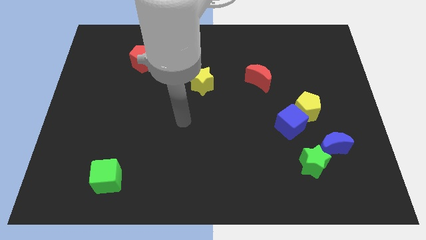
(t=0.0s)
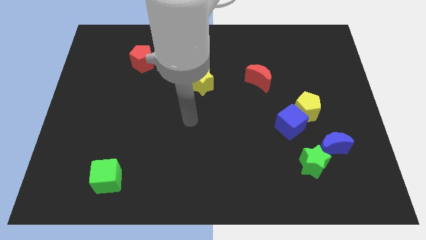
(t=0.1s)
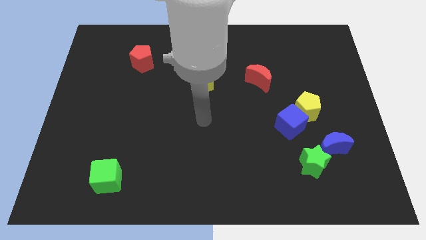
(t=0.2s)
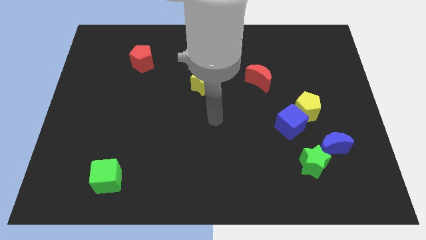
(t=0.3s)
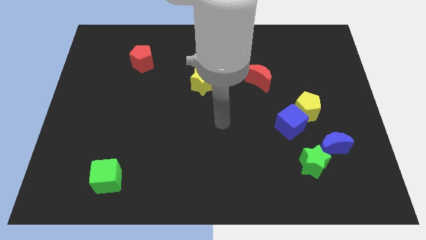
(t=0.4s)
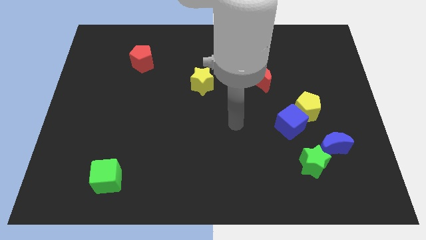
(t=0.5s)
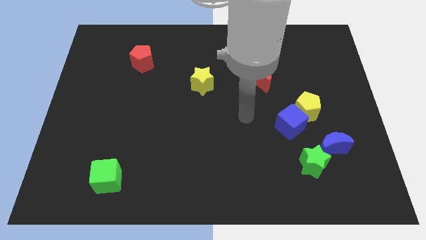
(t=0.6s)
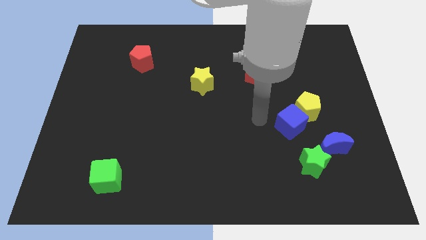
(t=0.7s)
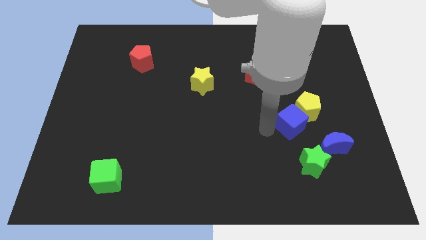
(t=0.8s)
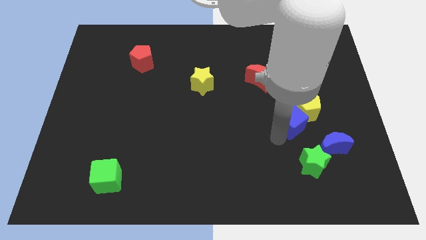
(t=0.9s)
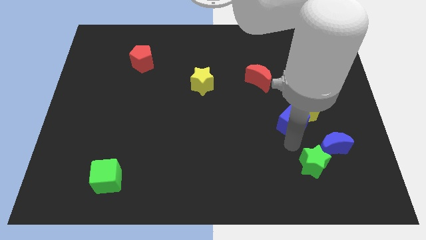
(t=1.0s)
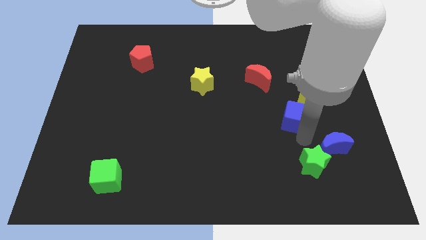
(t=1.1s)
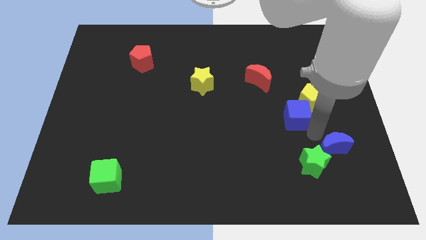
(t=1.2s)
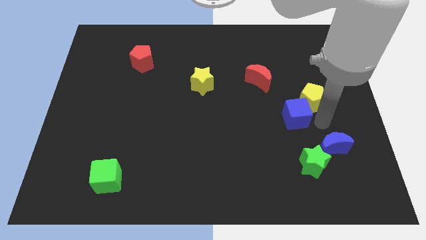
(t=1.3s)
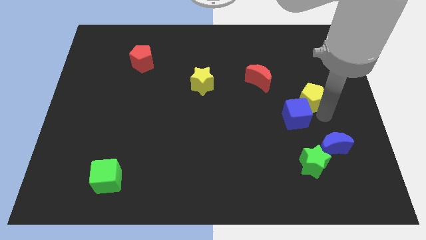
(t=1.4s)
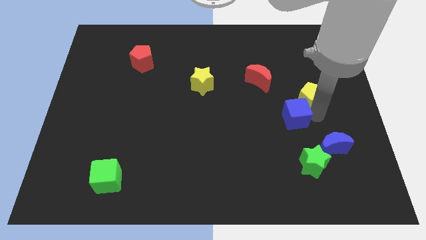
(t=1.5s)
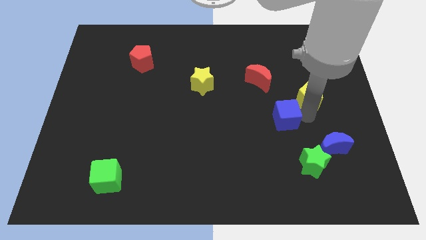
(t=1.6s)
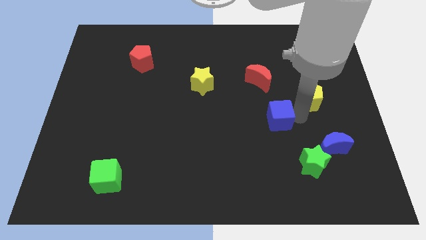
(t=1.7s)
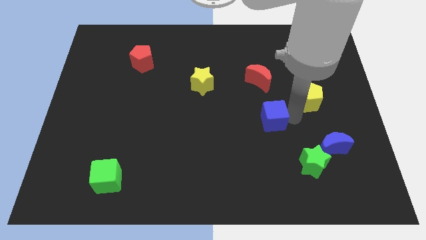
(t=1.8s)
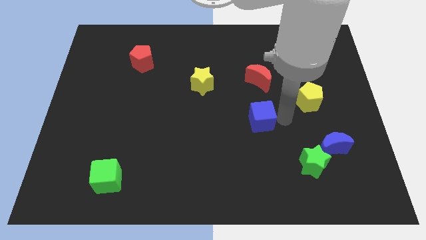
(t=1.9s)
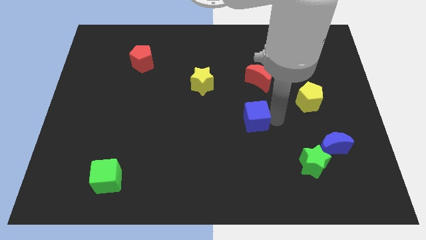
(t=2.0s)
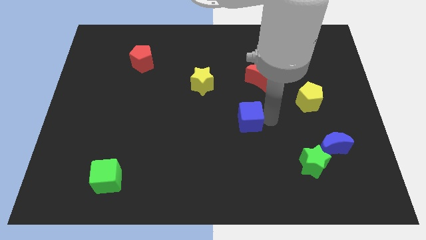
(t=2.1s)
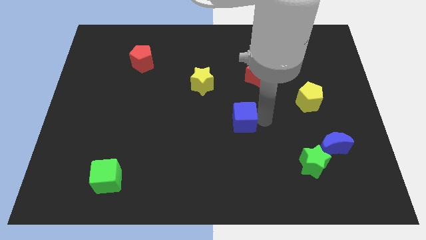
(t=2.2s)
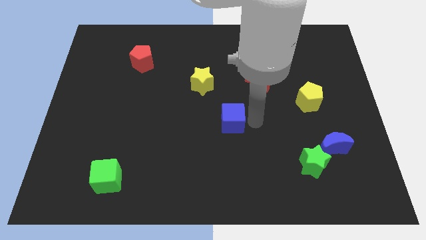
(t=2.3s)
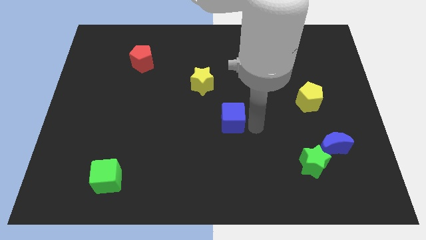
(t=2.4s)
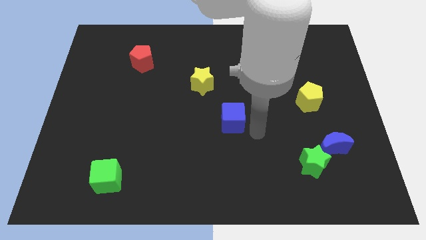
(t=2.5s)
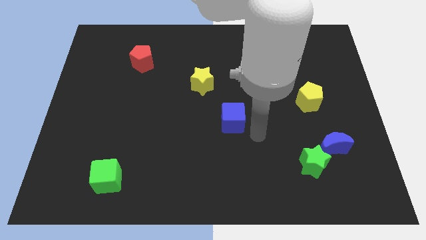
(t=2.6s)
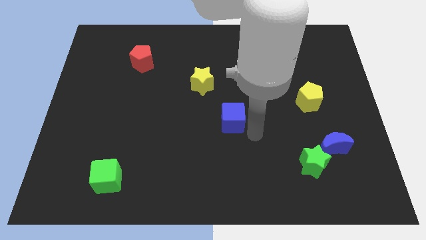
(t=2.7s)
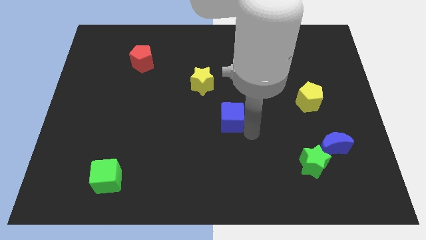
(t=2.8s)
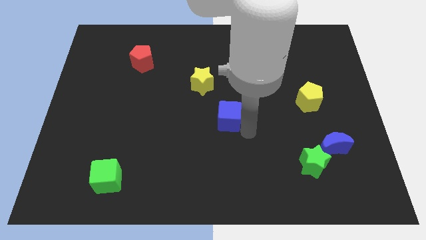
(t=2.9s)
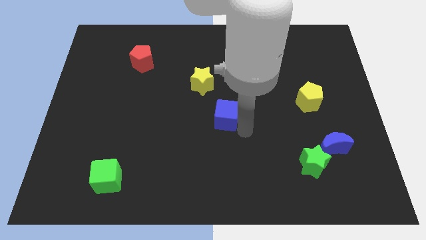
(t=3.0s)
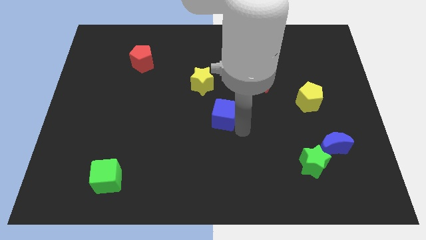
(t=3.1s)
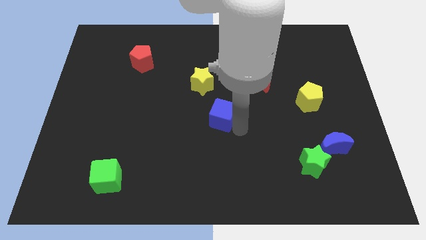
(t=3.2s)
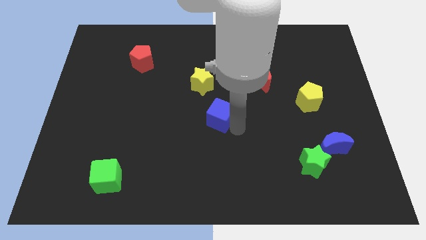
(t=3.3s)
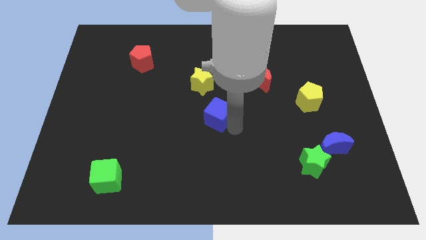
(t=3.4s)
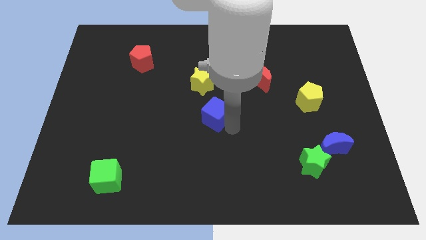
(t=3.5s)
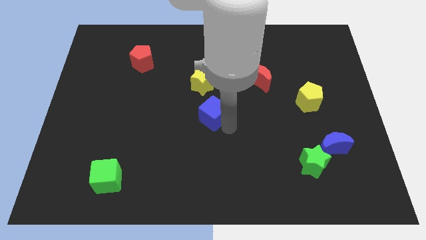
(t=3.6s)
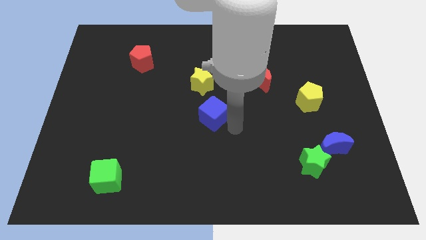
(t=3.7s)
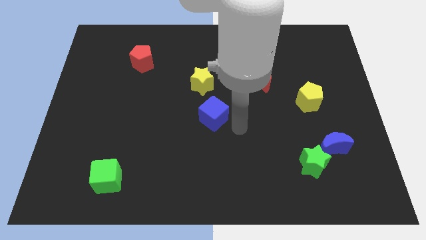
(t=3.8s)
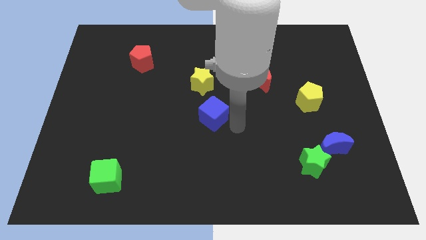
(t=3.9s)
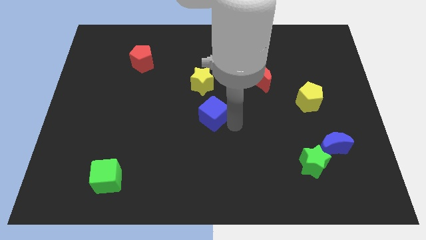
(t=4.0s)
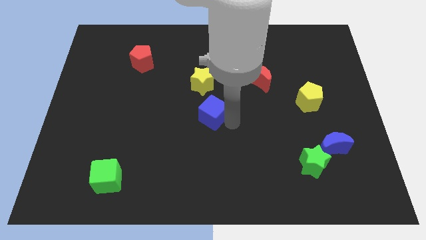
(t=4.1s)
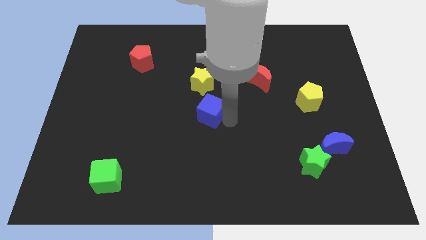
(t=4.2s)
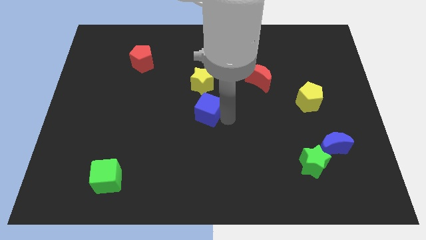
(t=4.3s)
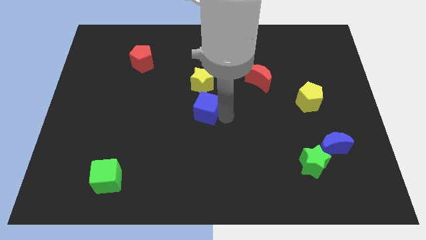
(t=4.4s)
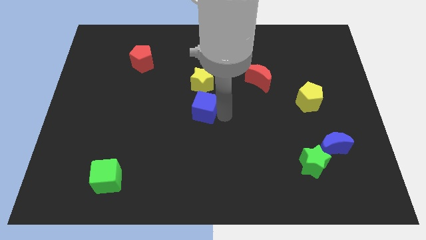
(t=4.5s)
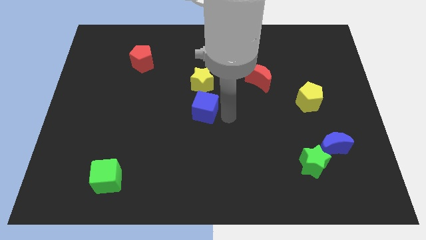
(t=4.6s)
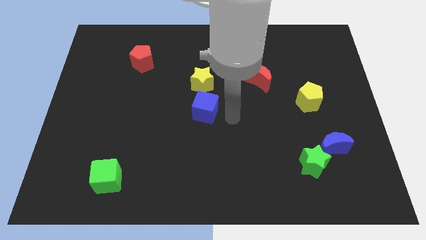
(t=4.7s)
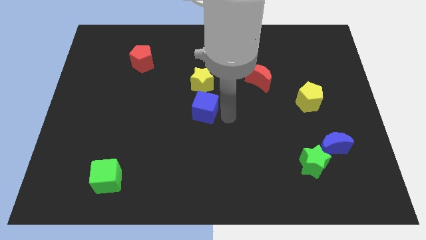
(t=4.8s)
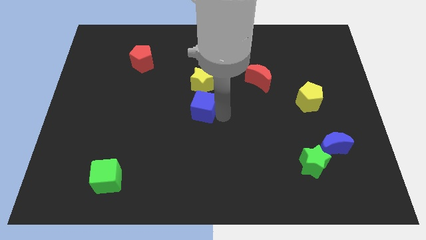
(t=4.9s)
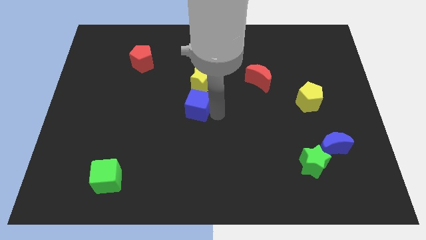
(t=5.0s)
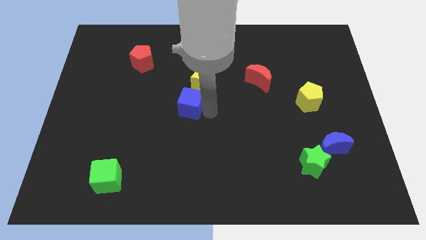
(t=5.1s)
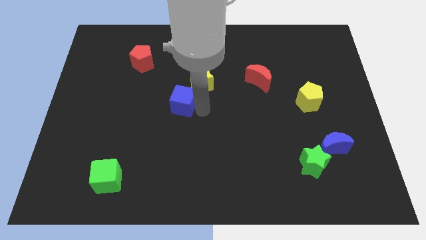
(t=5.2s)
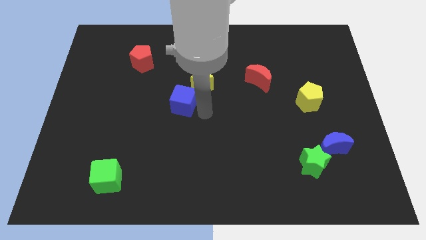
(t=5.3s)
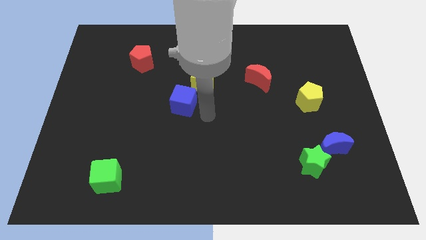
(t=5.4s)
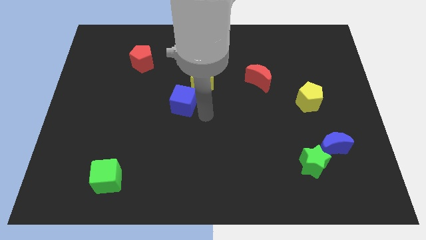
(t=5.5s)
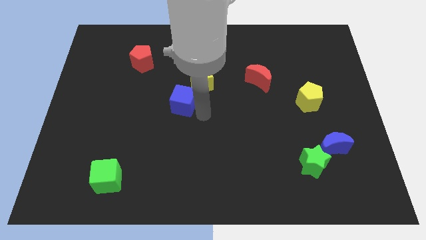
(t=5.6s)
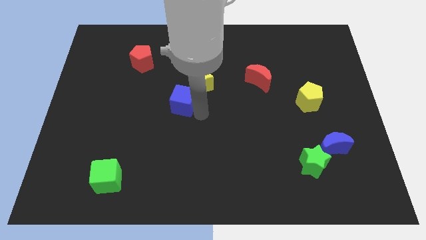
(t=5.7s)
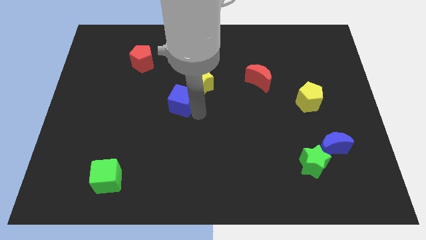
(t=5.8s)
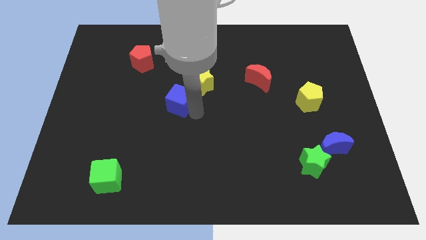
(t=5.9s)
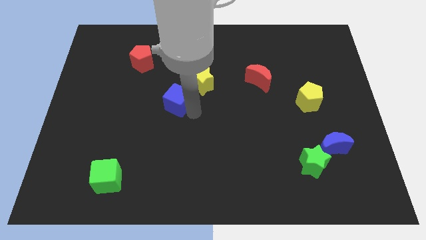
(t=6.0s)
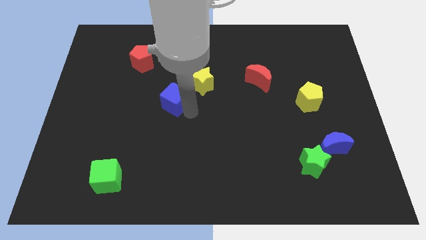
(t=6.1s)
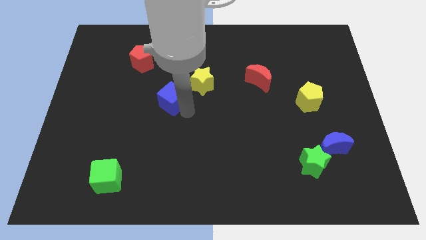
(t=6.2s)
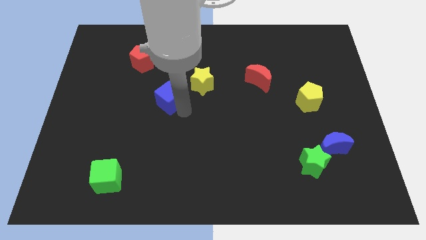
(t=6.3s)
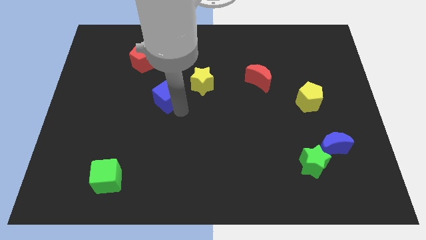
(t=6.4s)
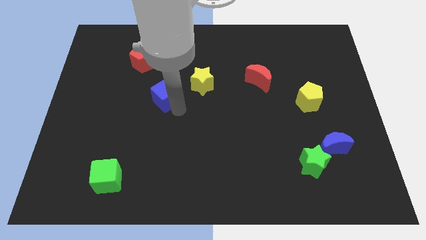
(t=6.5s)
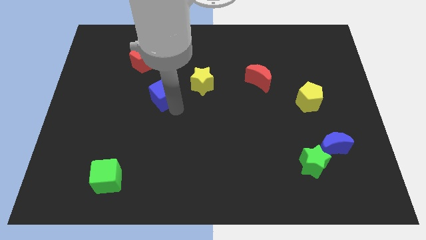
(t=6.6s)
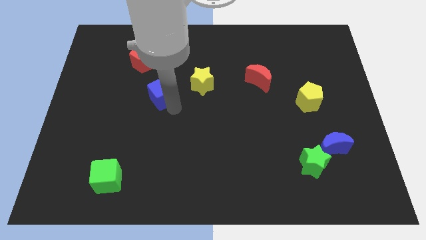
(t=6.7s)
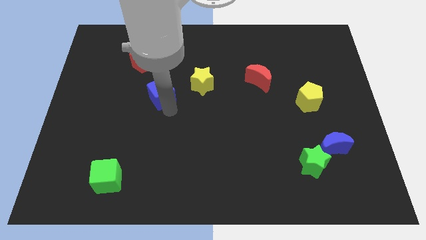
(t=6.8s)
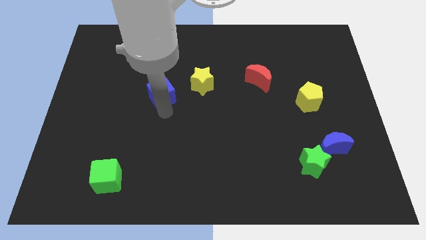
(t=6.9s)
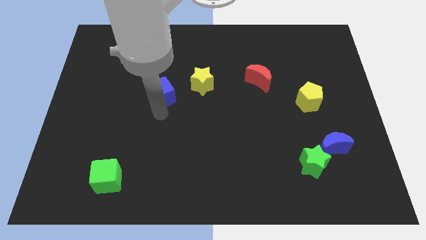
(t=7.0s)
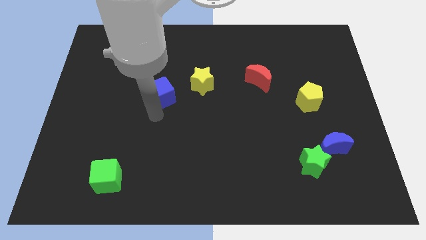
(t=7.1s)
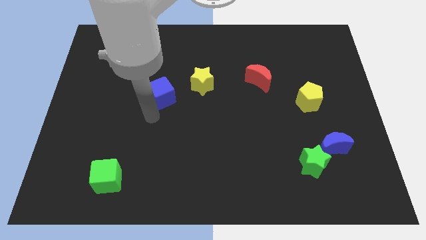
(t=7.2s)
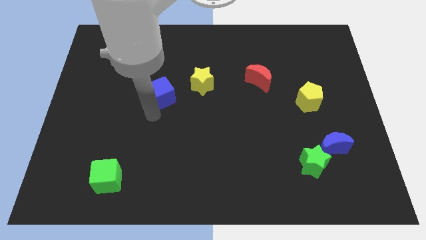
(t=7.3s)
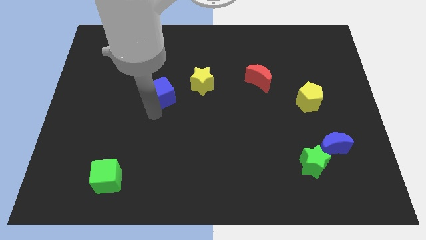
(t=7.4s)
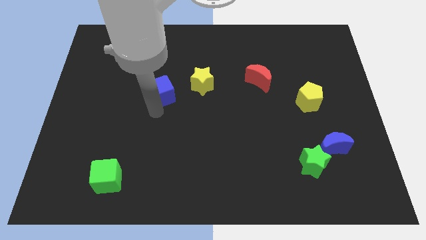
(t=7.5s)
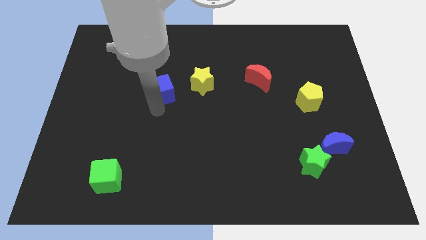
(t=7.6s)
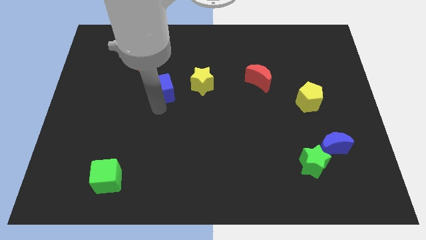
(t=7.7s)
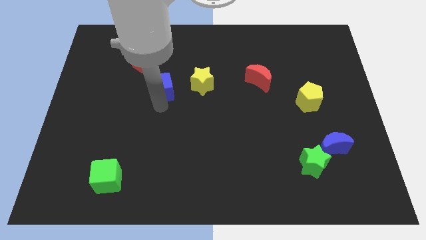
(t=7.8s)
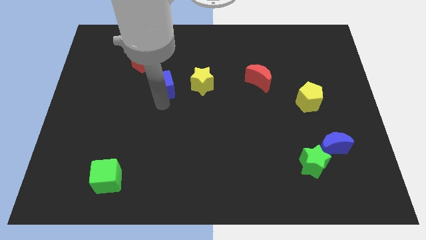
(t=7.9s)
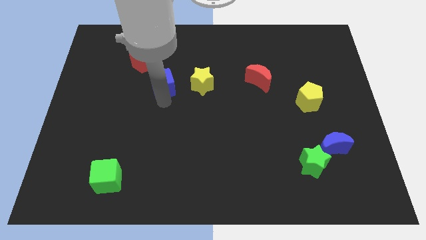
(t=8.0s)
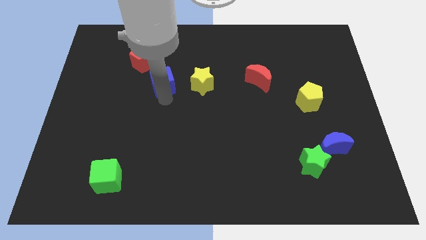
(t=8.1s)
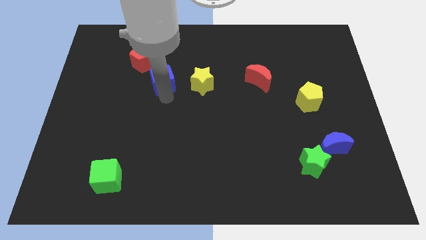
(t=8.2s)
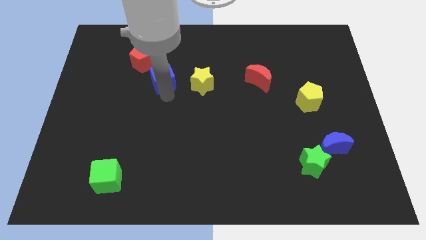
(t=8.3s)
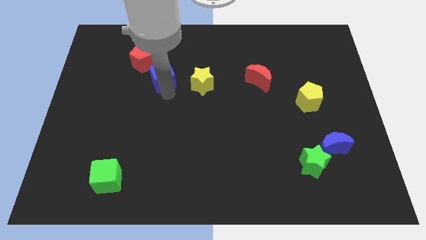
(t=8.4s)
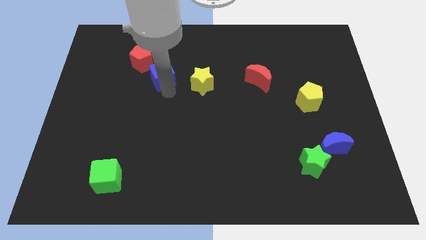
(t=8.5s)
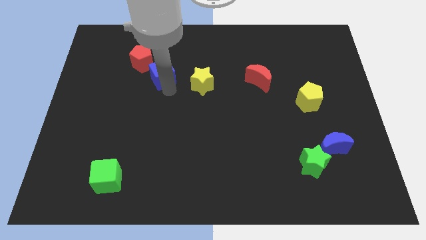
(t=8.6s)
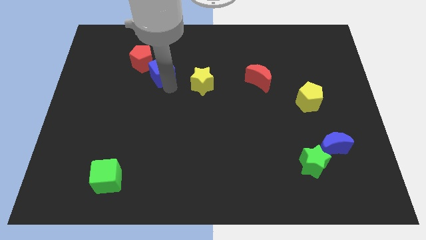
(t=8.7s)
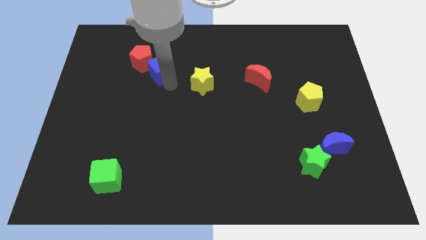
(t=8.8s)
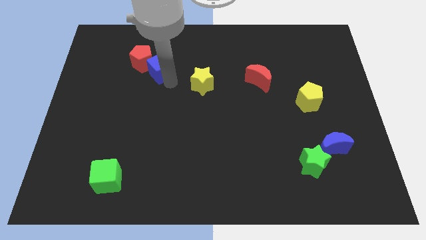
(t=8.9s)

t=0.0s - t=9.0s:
move the blue cube close to the red pentagon
